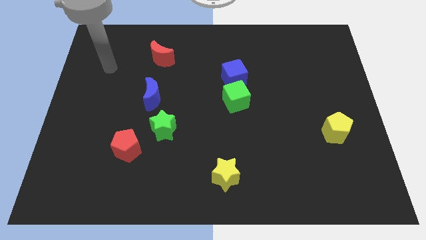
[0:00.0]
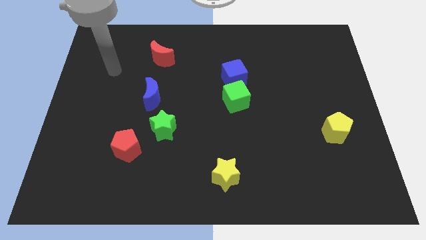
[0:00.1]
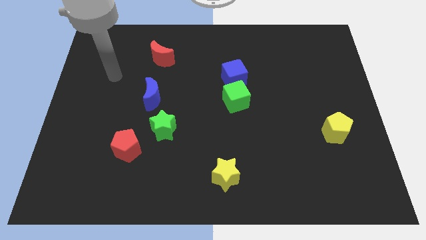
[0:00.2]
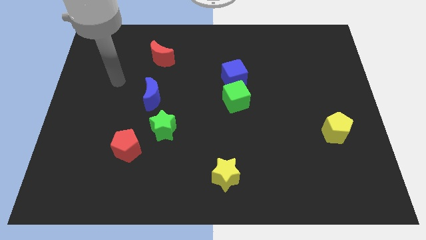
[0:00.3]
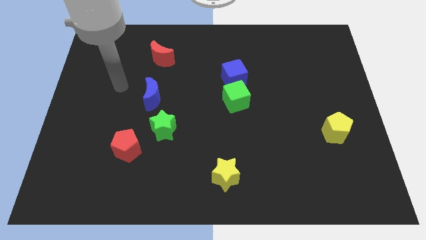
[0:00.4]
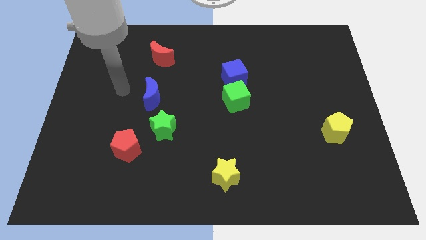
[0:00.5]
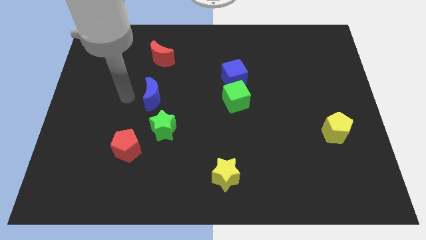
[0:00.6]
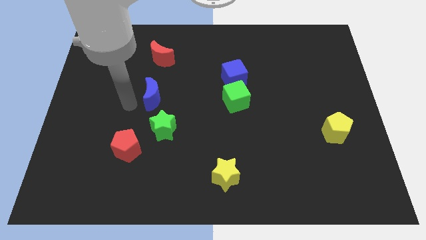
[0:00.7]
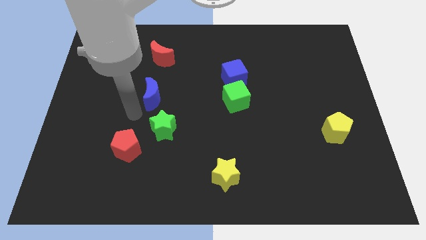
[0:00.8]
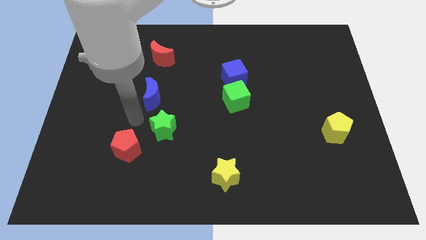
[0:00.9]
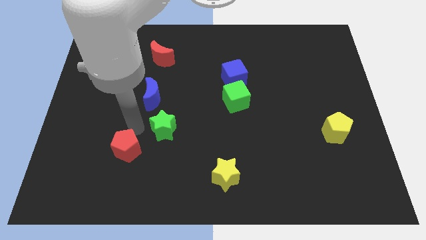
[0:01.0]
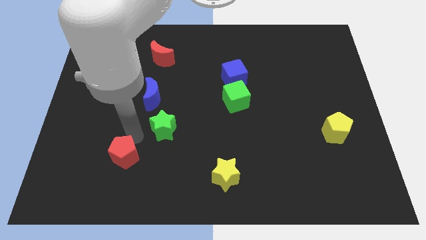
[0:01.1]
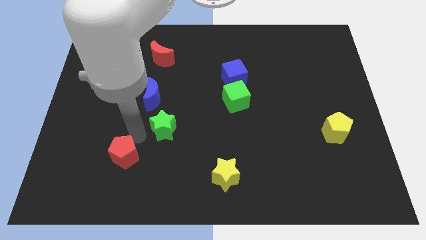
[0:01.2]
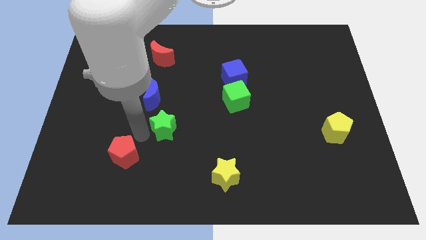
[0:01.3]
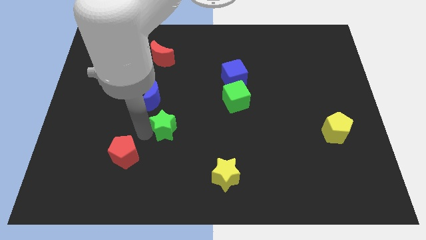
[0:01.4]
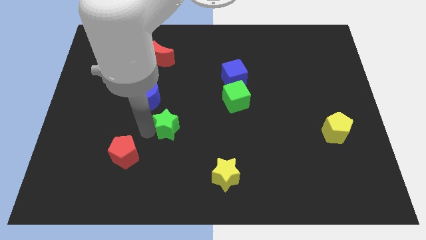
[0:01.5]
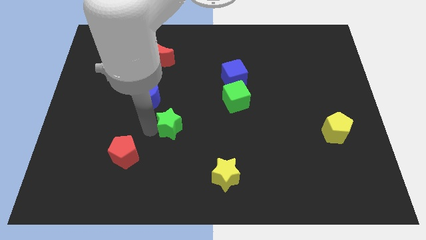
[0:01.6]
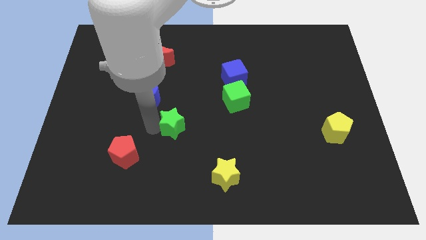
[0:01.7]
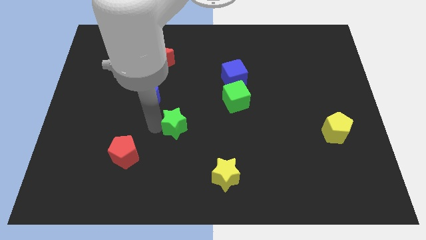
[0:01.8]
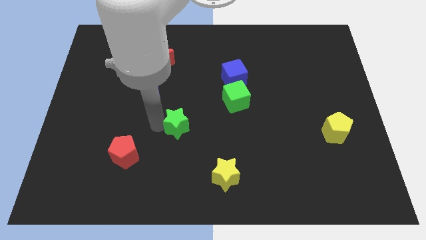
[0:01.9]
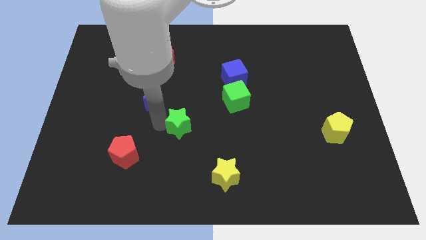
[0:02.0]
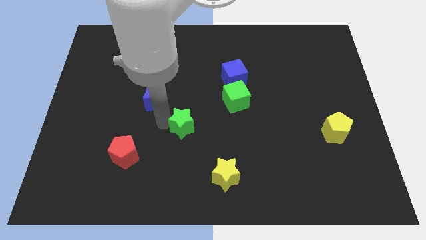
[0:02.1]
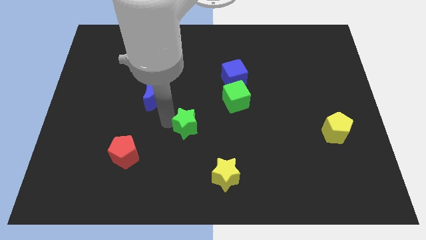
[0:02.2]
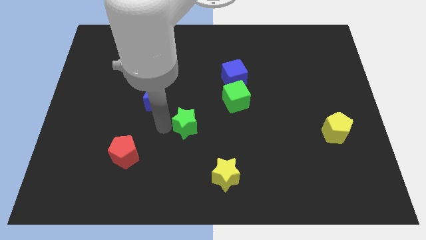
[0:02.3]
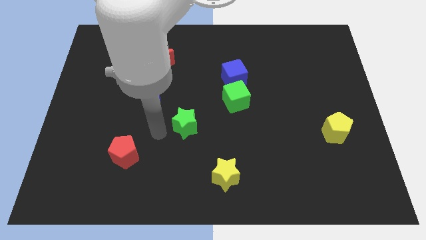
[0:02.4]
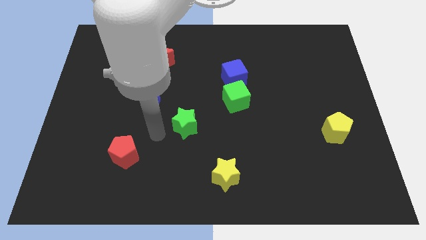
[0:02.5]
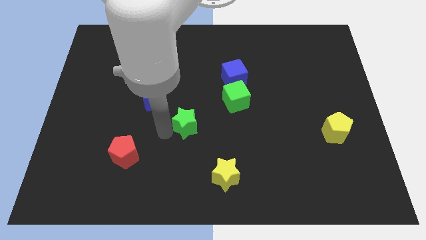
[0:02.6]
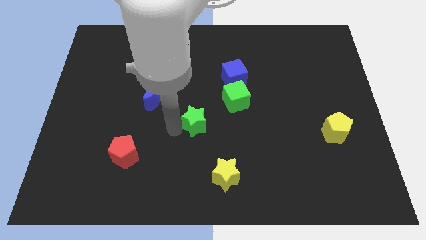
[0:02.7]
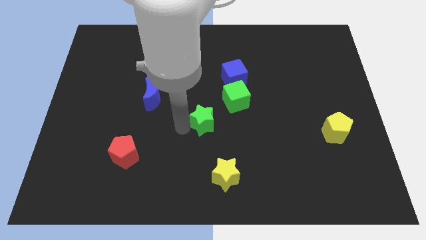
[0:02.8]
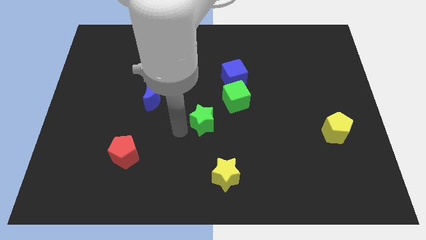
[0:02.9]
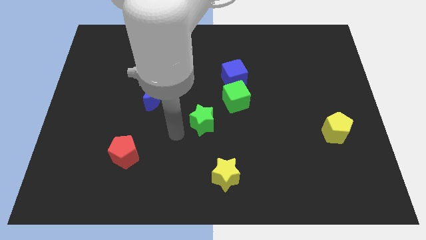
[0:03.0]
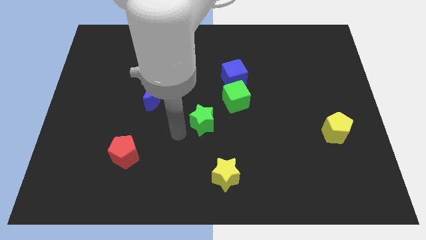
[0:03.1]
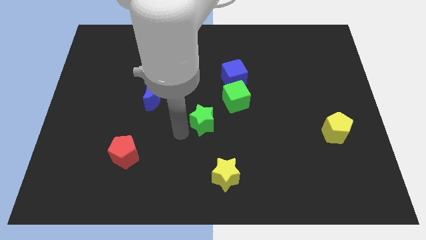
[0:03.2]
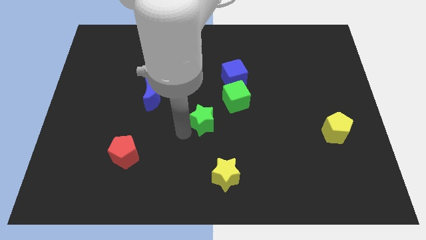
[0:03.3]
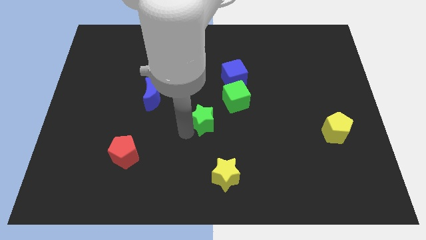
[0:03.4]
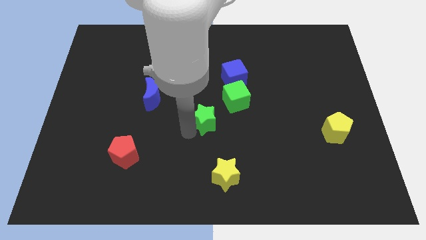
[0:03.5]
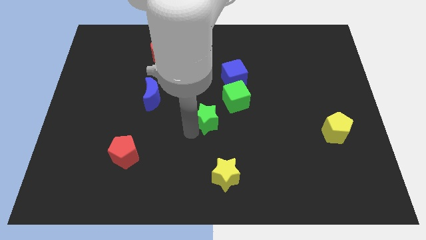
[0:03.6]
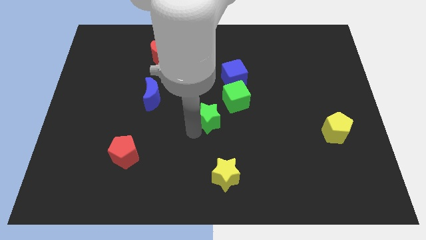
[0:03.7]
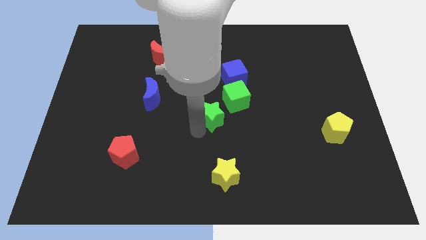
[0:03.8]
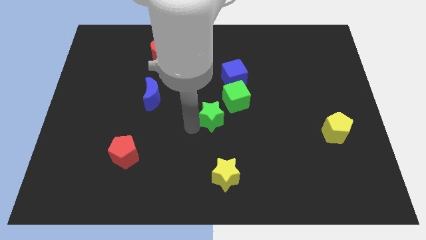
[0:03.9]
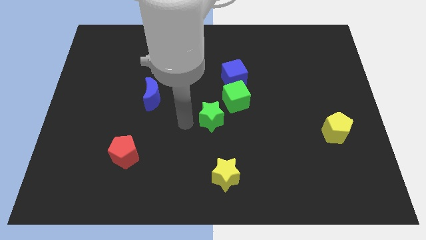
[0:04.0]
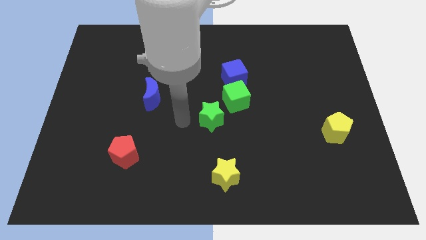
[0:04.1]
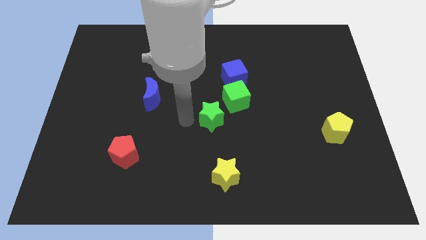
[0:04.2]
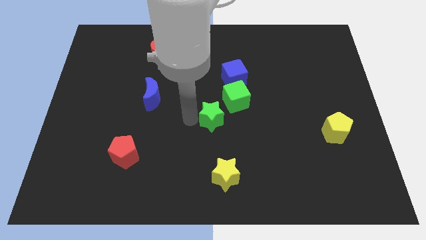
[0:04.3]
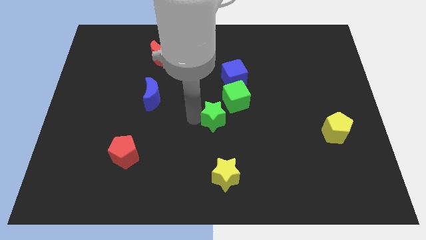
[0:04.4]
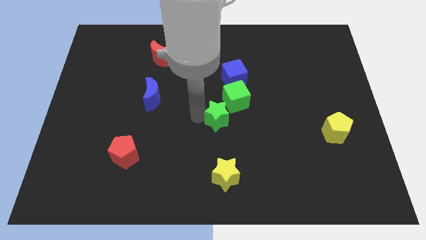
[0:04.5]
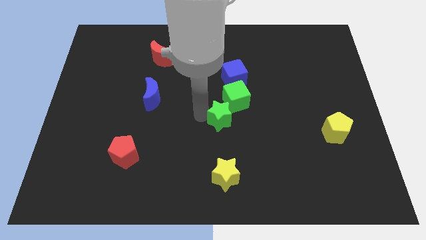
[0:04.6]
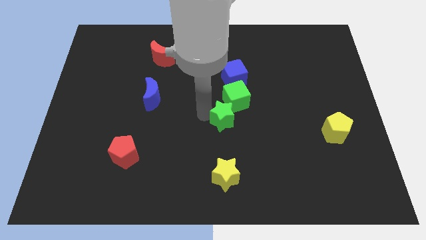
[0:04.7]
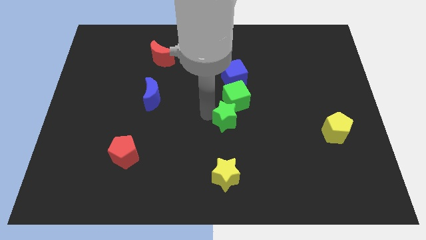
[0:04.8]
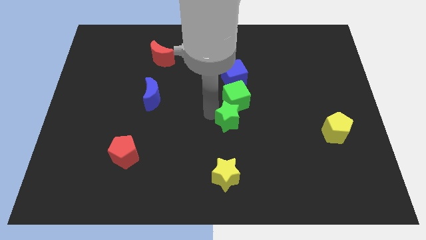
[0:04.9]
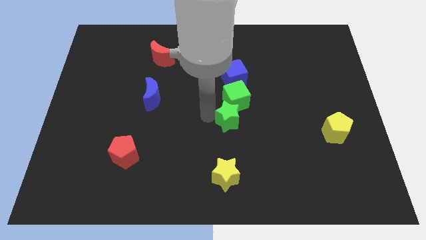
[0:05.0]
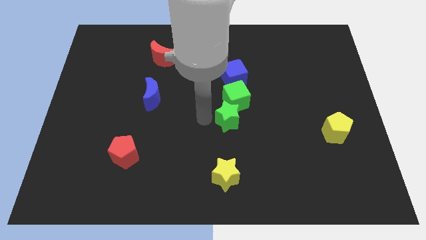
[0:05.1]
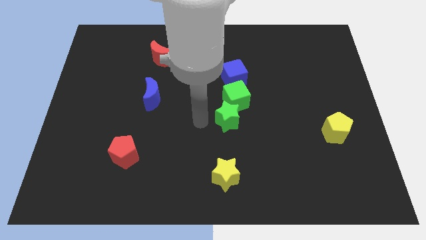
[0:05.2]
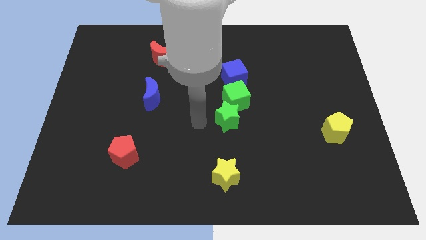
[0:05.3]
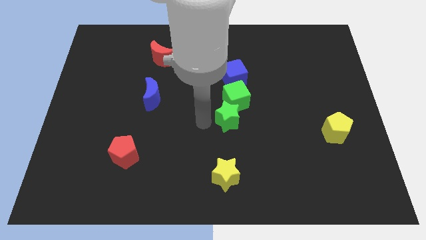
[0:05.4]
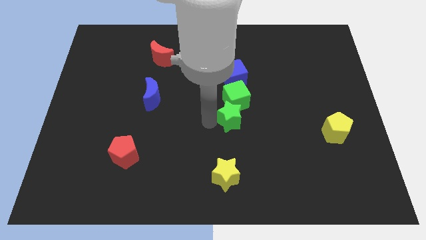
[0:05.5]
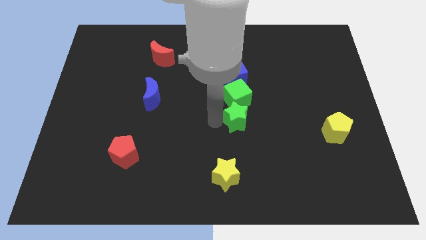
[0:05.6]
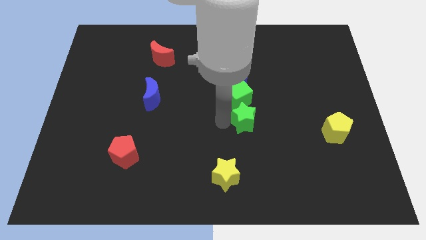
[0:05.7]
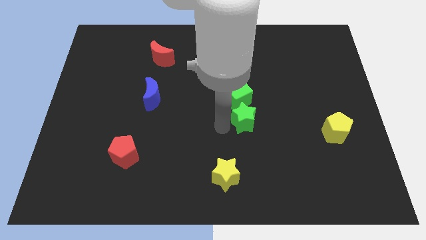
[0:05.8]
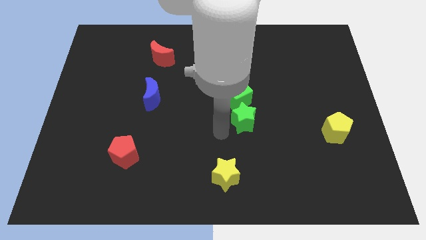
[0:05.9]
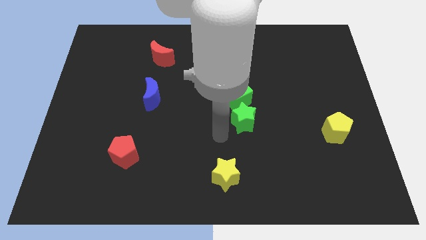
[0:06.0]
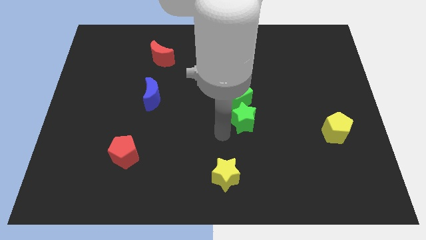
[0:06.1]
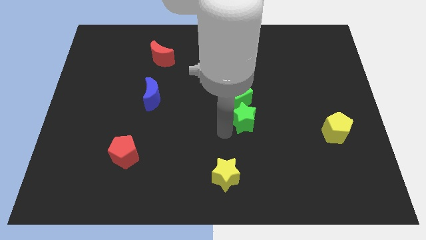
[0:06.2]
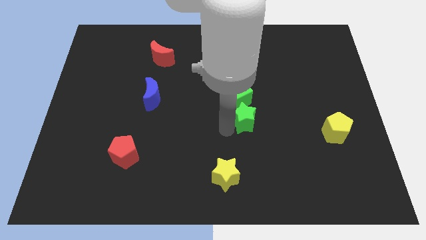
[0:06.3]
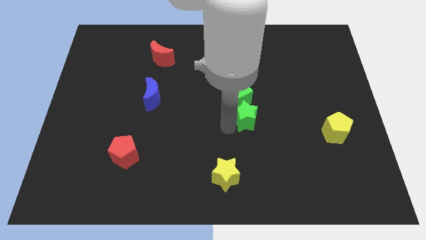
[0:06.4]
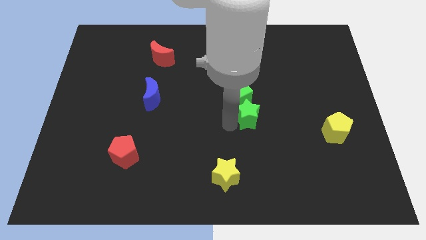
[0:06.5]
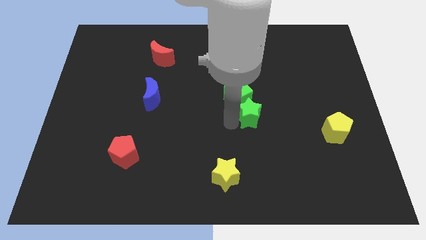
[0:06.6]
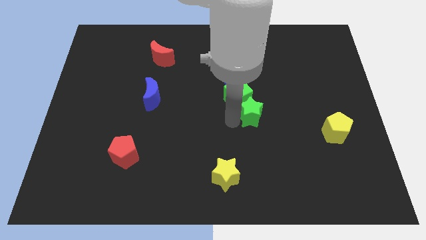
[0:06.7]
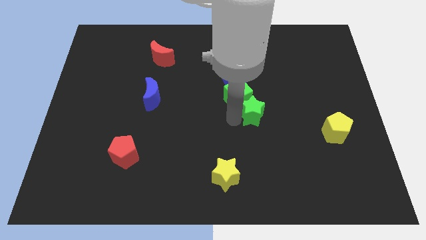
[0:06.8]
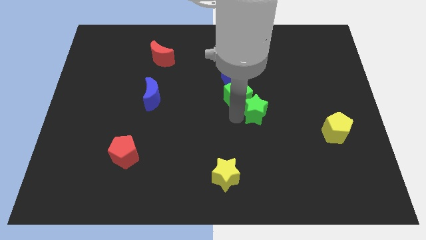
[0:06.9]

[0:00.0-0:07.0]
slide the green star to the right side of the green cube

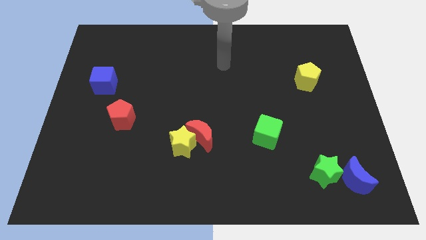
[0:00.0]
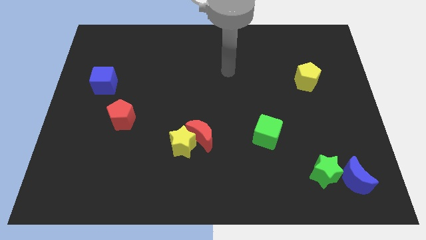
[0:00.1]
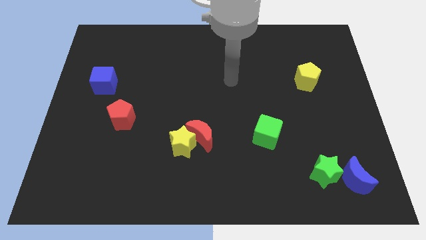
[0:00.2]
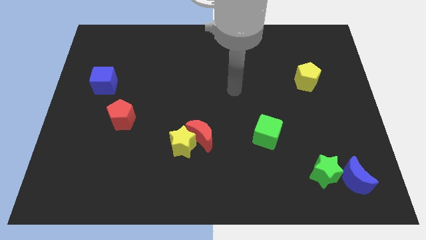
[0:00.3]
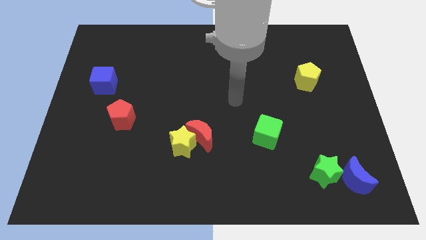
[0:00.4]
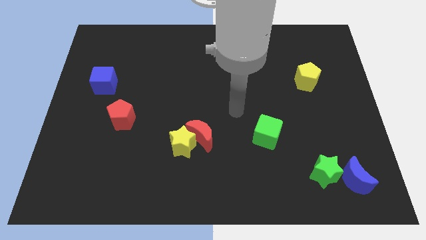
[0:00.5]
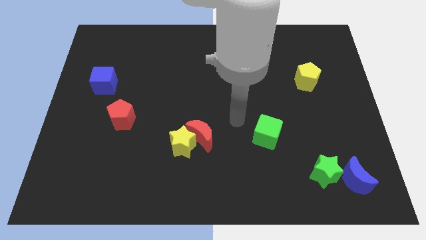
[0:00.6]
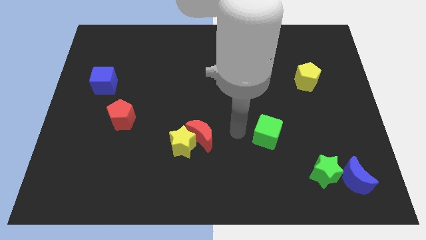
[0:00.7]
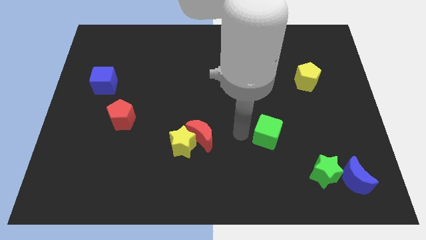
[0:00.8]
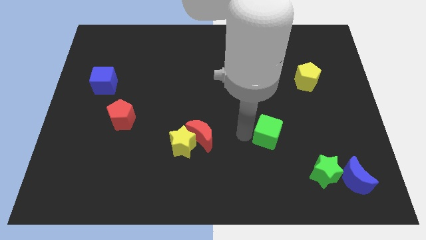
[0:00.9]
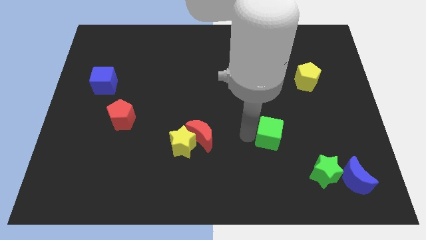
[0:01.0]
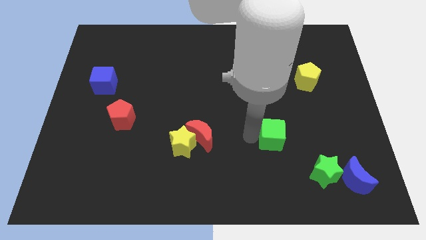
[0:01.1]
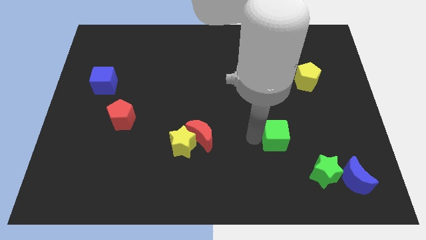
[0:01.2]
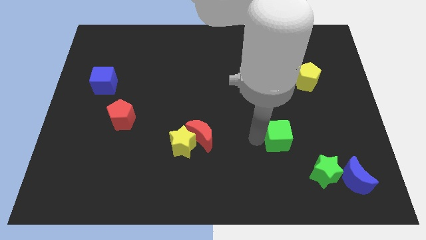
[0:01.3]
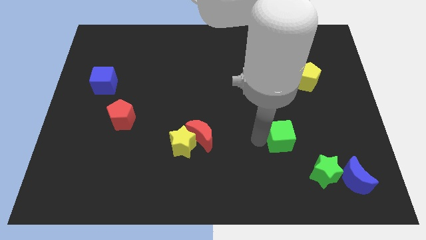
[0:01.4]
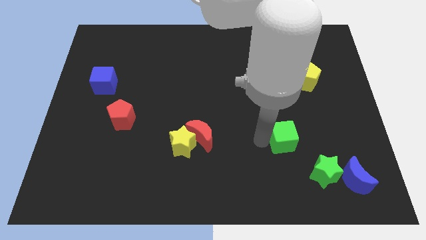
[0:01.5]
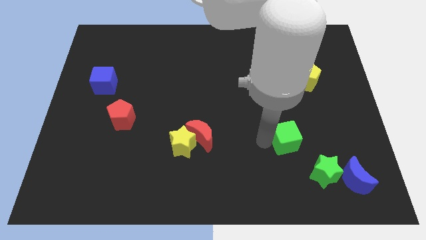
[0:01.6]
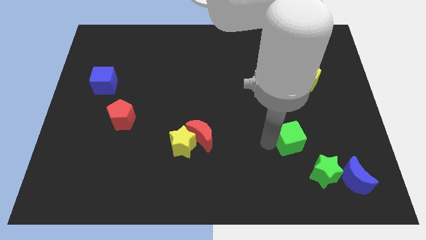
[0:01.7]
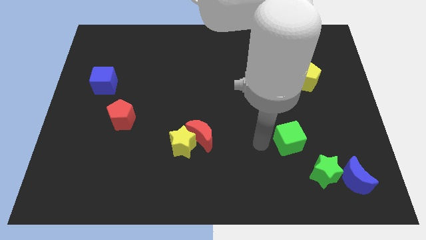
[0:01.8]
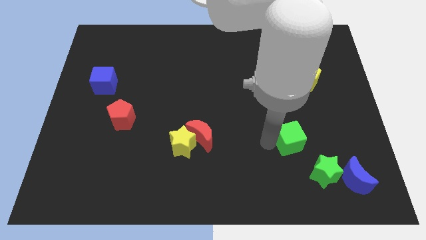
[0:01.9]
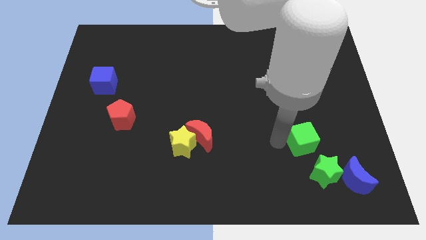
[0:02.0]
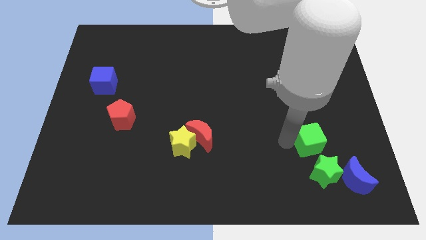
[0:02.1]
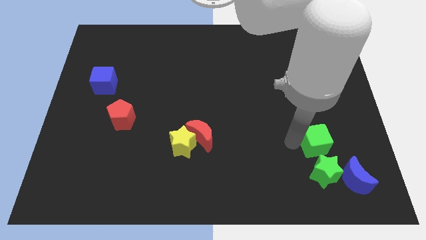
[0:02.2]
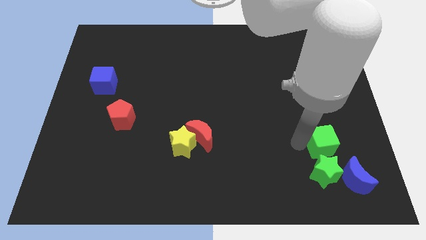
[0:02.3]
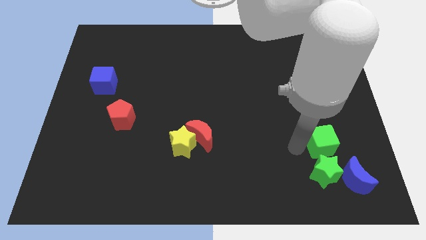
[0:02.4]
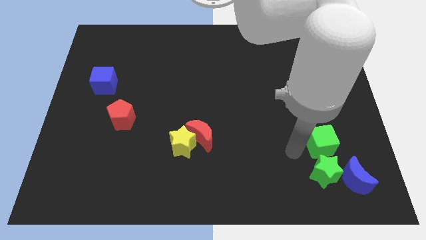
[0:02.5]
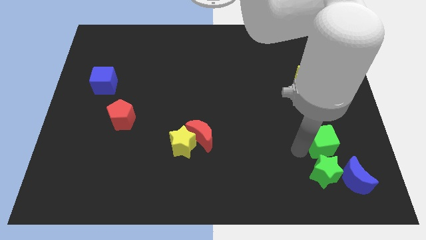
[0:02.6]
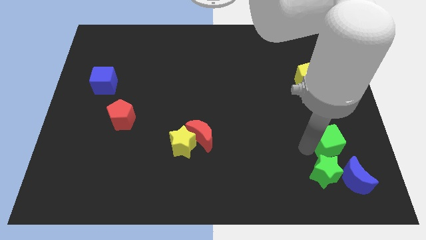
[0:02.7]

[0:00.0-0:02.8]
put the green cube above the blue moon
